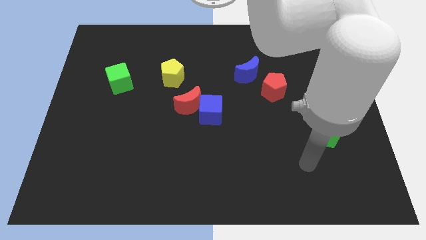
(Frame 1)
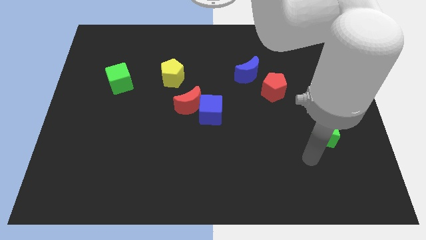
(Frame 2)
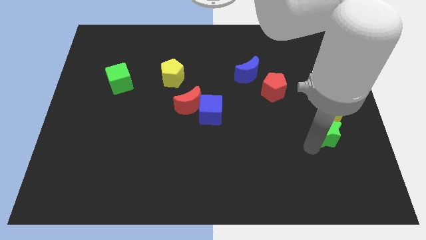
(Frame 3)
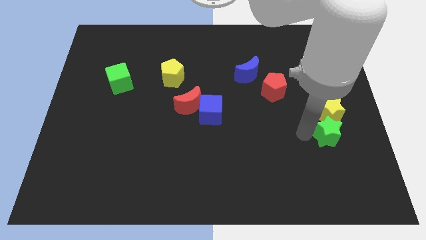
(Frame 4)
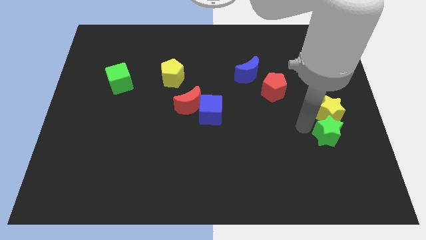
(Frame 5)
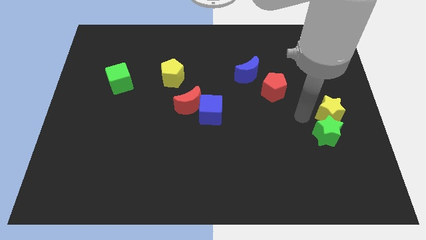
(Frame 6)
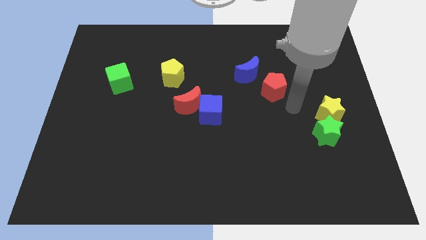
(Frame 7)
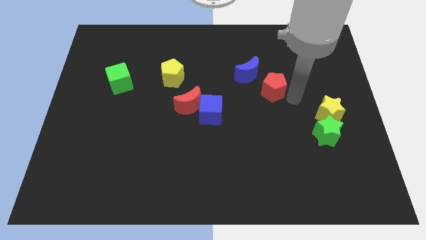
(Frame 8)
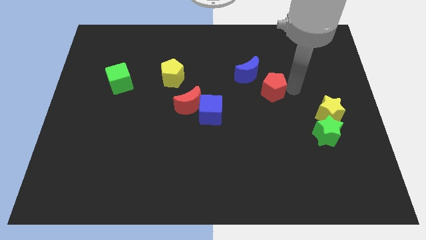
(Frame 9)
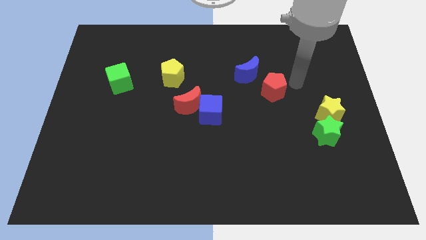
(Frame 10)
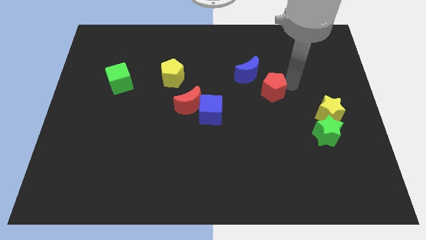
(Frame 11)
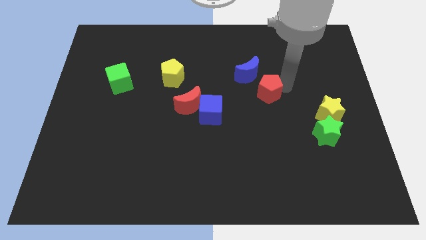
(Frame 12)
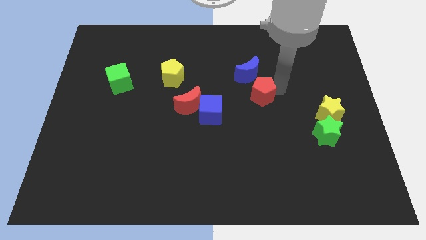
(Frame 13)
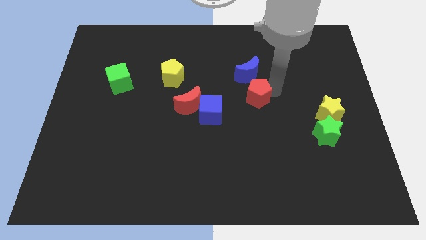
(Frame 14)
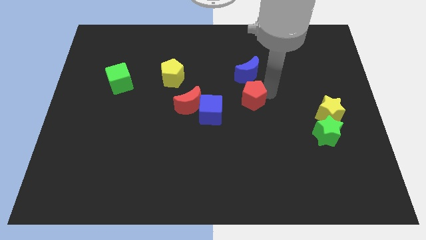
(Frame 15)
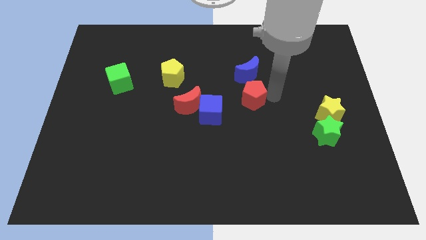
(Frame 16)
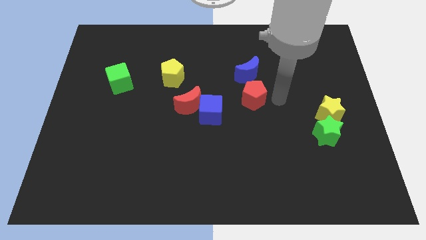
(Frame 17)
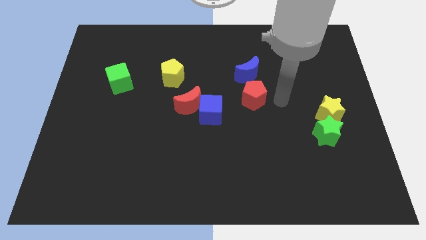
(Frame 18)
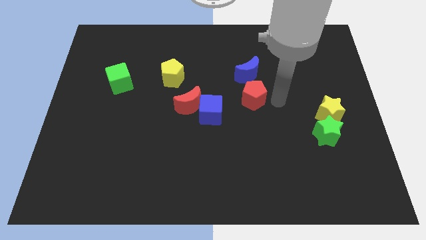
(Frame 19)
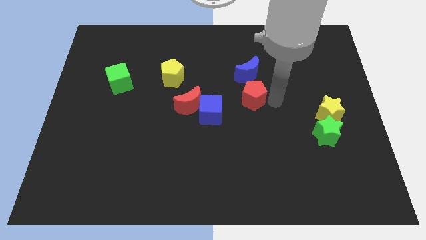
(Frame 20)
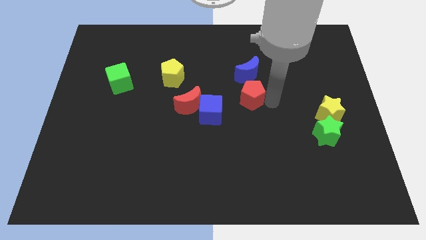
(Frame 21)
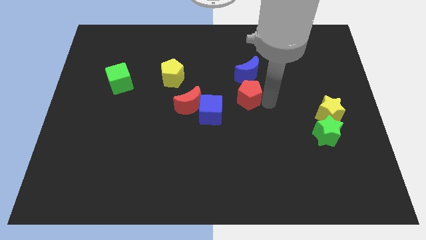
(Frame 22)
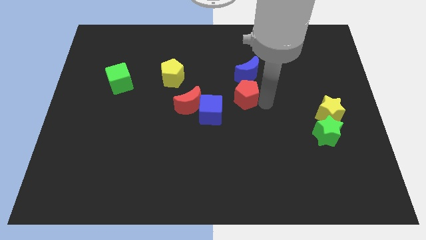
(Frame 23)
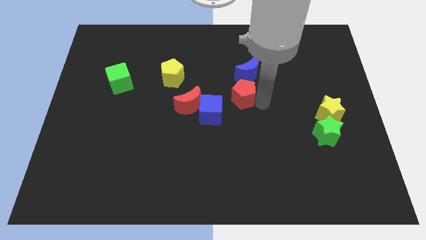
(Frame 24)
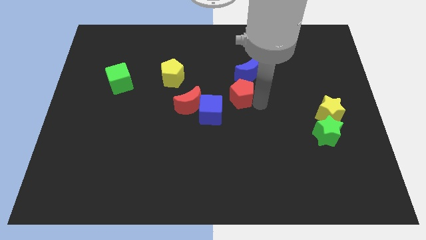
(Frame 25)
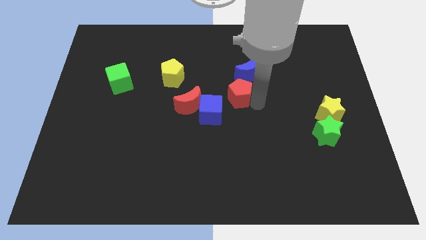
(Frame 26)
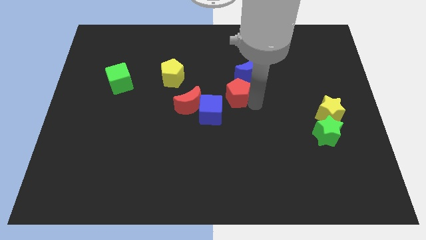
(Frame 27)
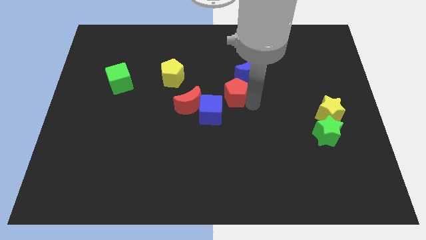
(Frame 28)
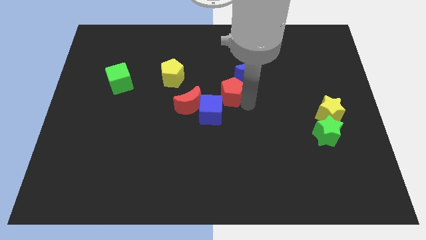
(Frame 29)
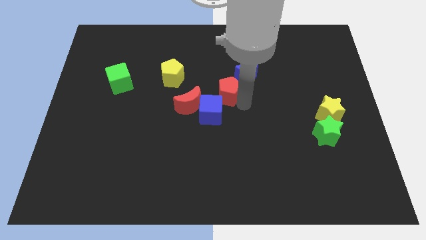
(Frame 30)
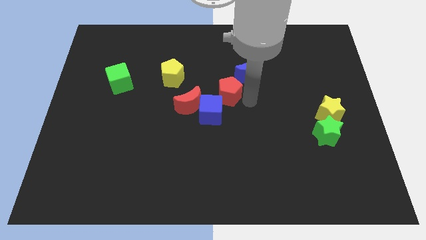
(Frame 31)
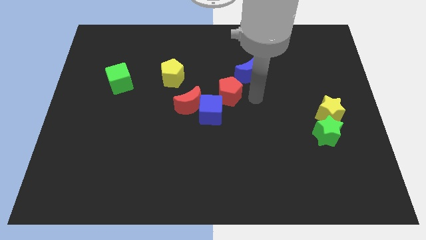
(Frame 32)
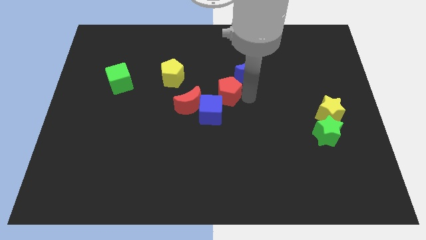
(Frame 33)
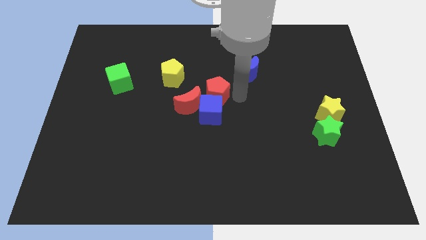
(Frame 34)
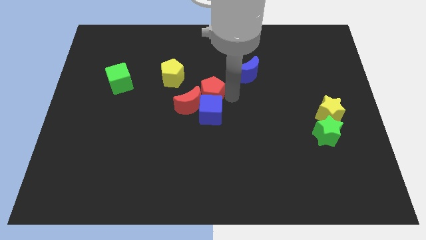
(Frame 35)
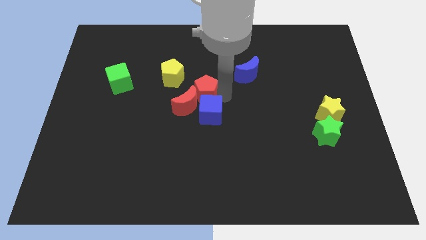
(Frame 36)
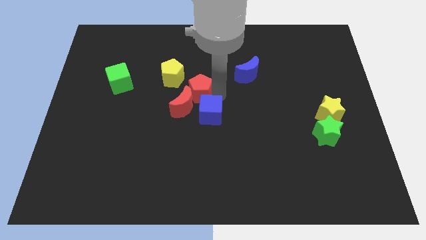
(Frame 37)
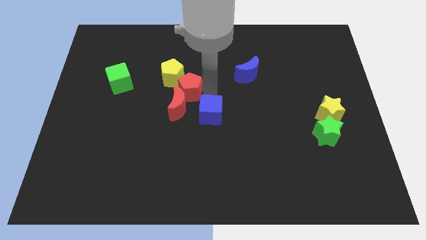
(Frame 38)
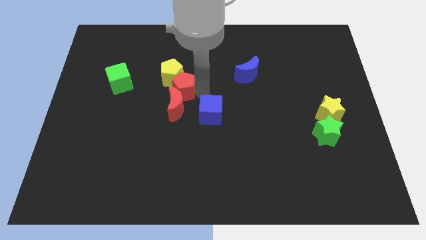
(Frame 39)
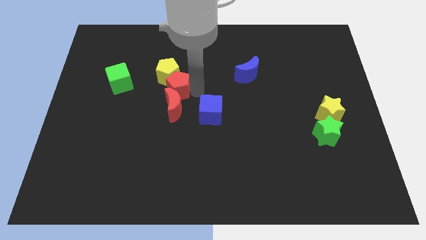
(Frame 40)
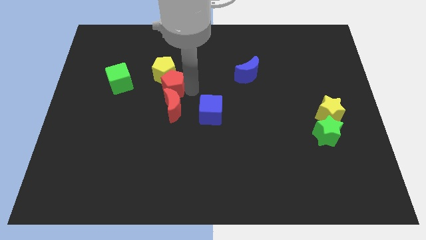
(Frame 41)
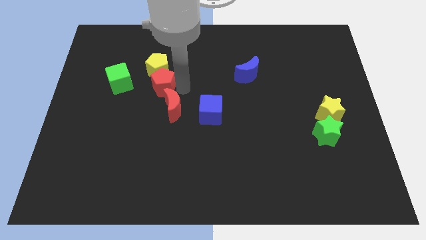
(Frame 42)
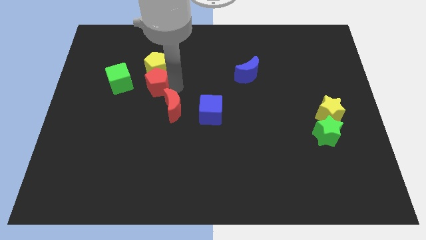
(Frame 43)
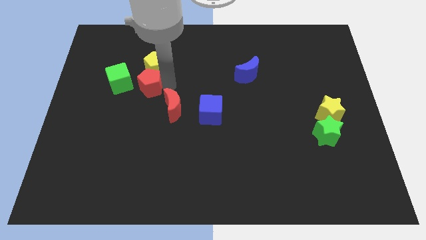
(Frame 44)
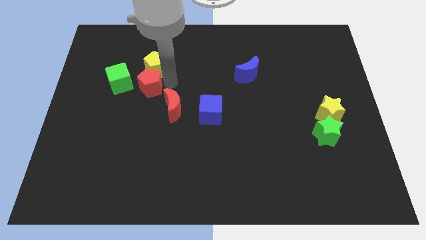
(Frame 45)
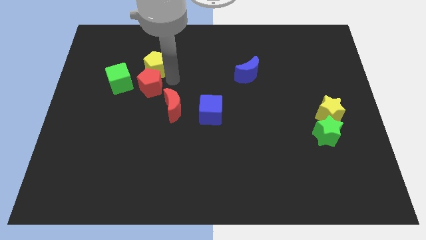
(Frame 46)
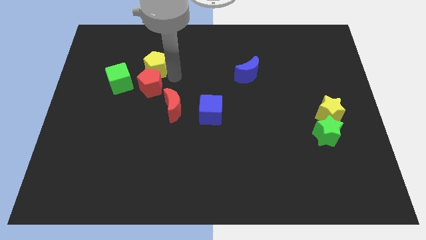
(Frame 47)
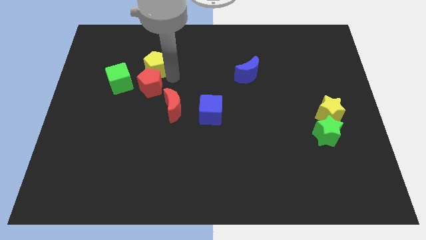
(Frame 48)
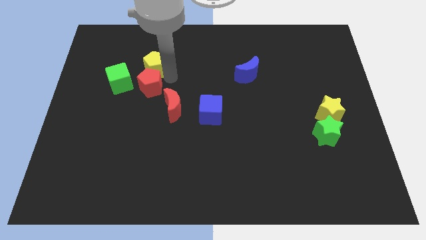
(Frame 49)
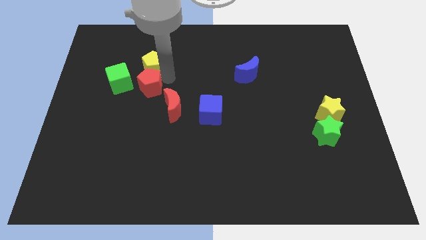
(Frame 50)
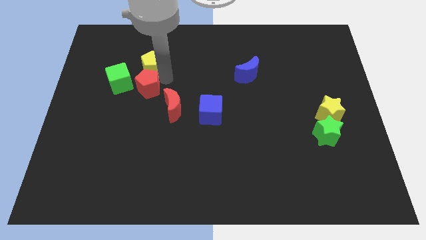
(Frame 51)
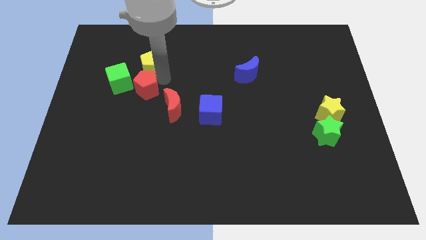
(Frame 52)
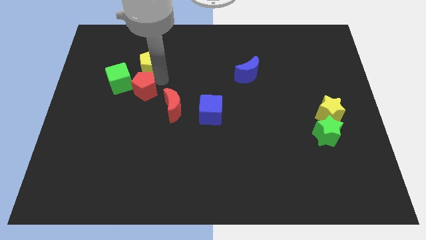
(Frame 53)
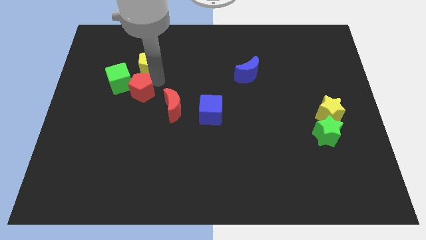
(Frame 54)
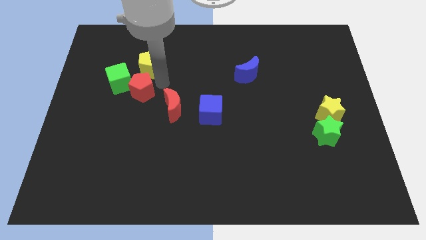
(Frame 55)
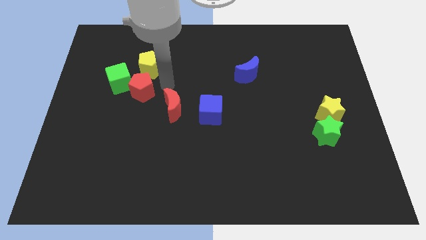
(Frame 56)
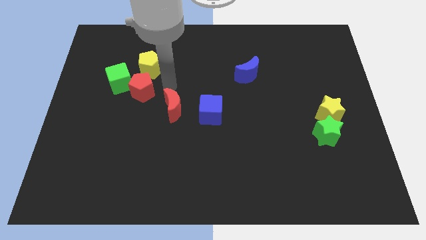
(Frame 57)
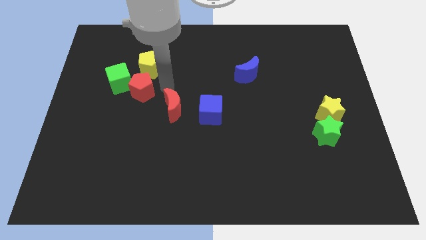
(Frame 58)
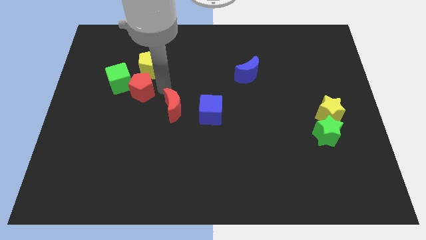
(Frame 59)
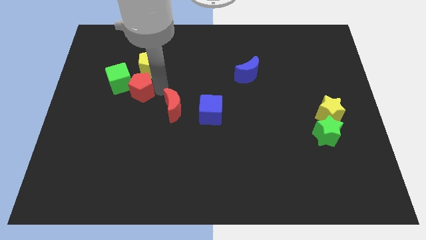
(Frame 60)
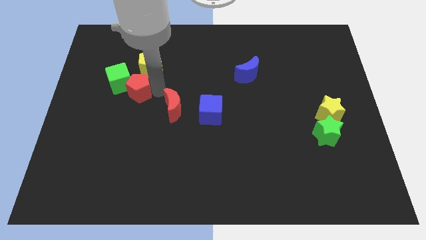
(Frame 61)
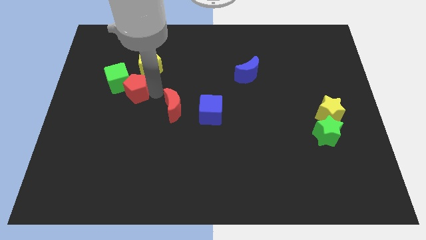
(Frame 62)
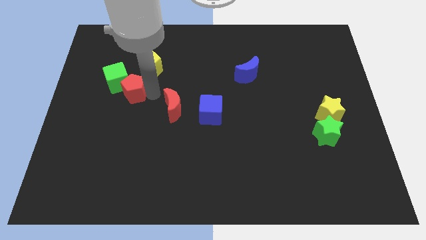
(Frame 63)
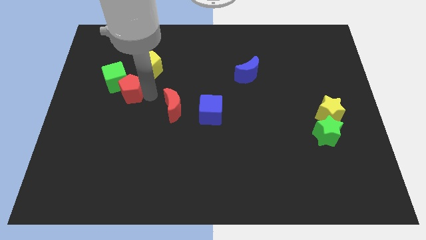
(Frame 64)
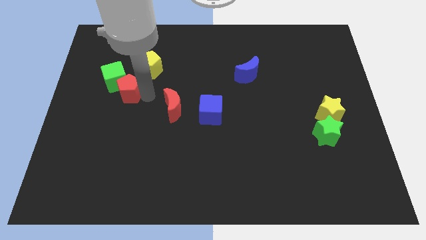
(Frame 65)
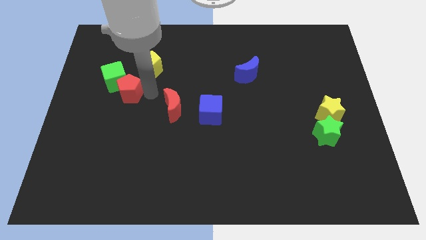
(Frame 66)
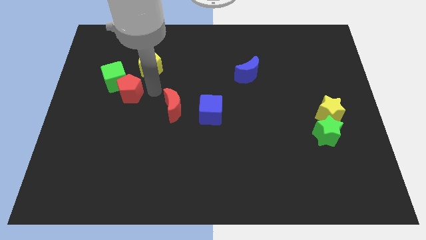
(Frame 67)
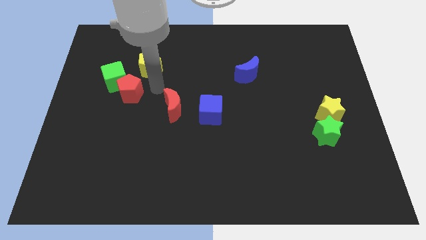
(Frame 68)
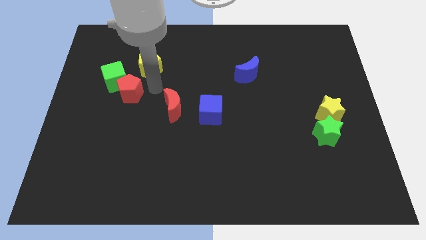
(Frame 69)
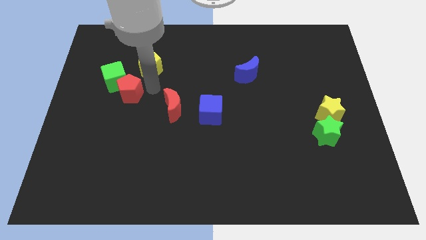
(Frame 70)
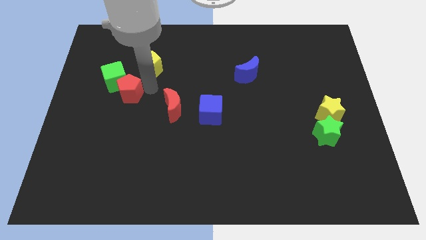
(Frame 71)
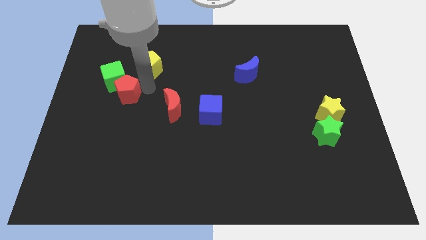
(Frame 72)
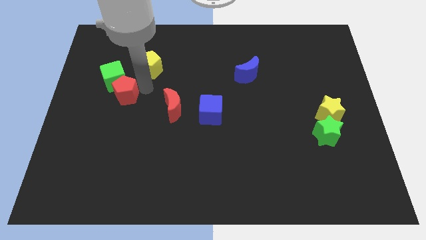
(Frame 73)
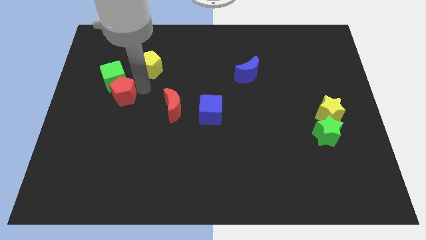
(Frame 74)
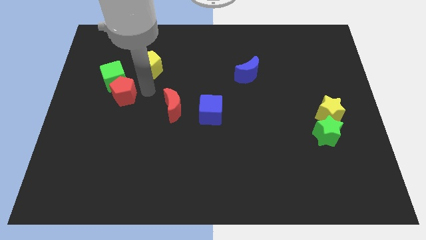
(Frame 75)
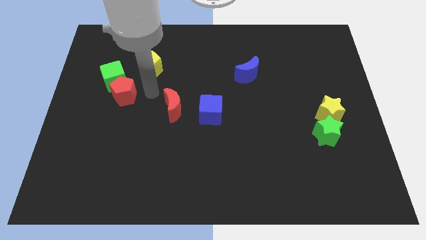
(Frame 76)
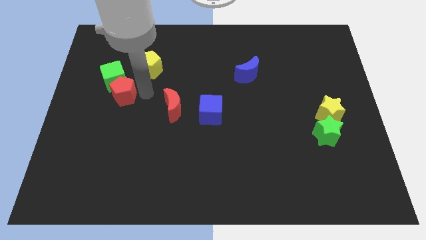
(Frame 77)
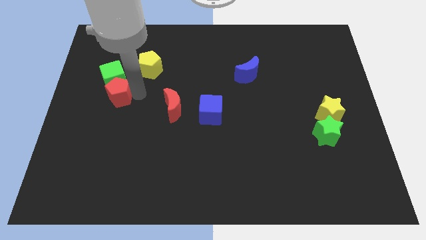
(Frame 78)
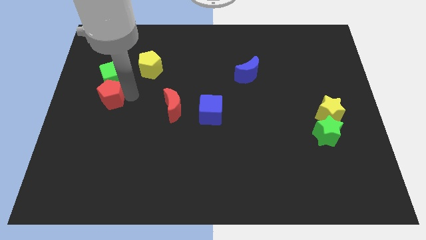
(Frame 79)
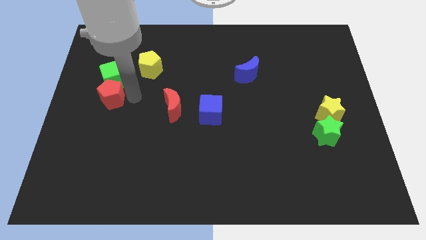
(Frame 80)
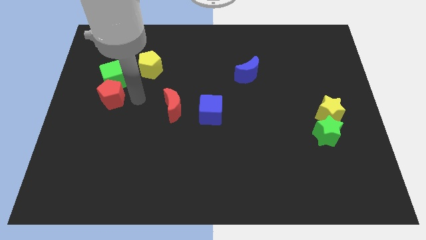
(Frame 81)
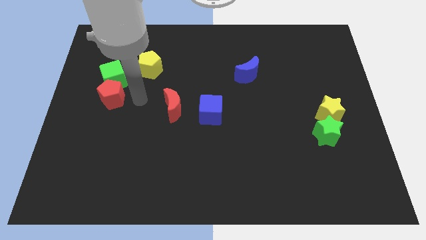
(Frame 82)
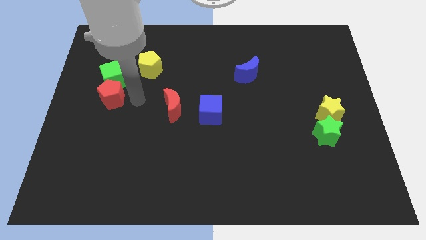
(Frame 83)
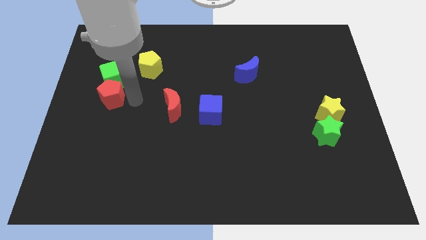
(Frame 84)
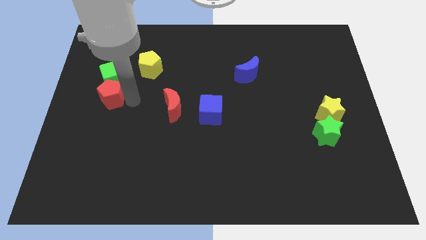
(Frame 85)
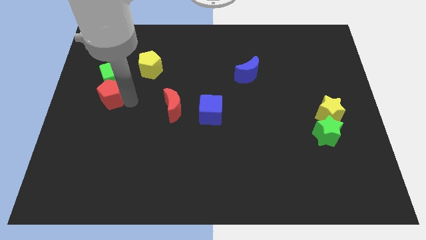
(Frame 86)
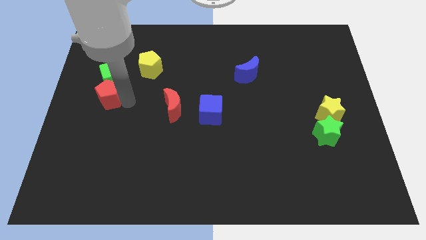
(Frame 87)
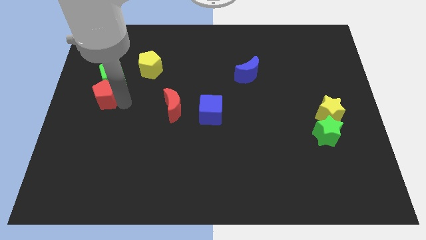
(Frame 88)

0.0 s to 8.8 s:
put the red pentagon to the center left
